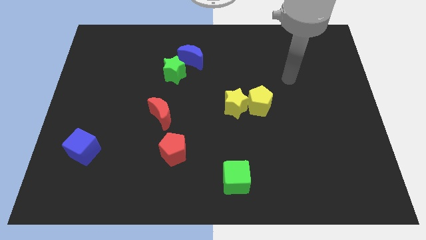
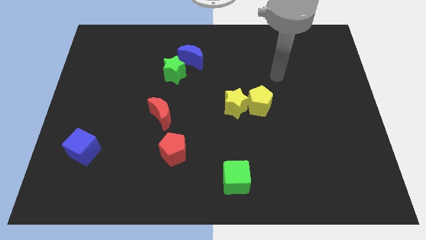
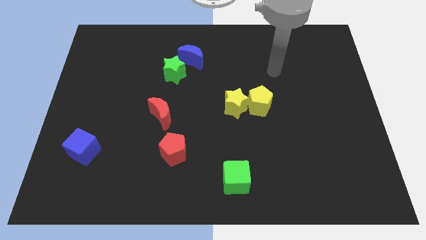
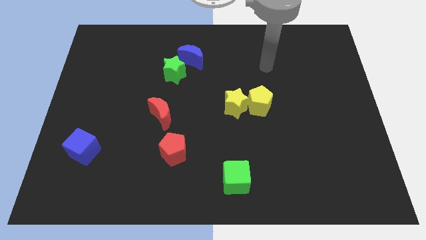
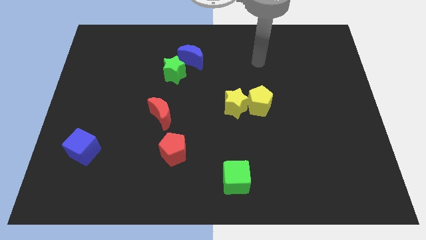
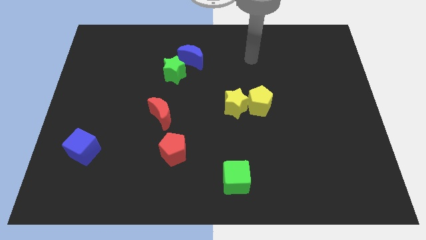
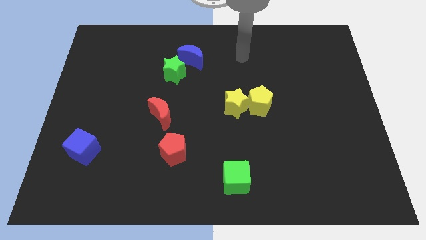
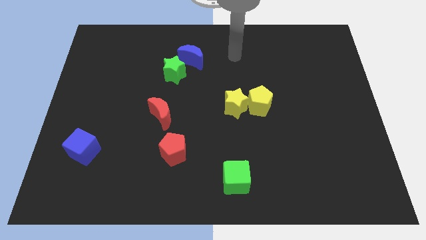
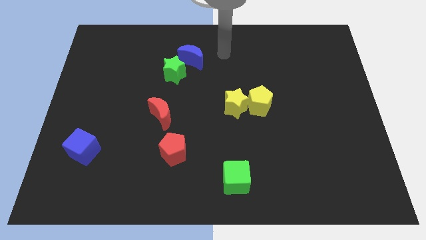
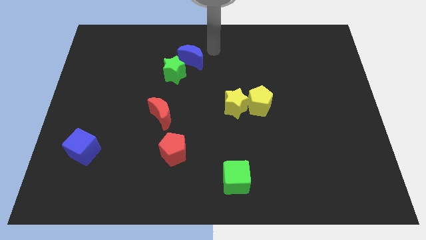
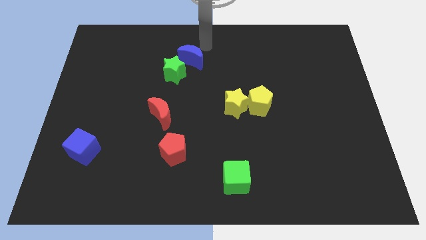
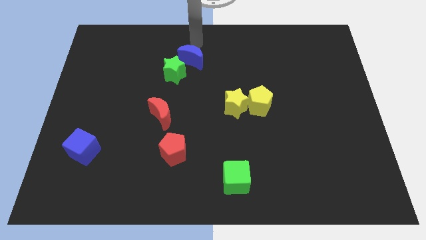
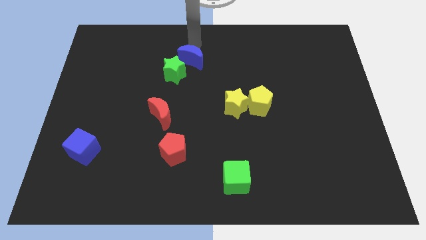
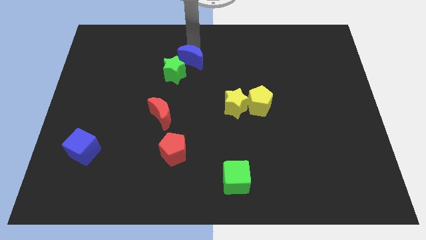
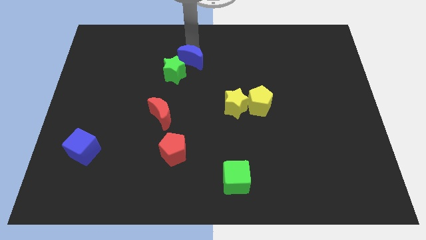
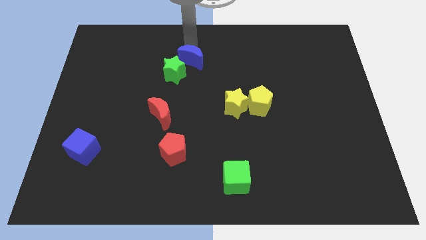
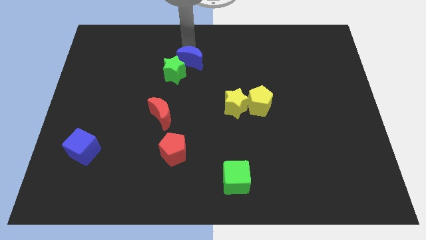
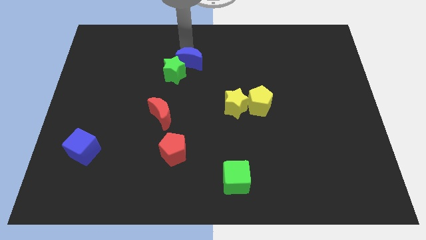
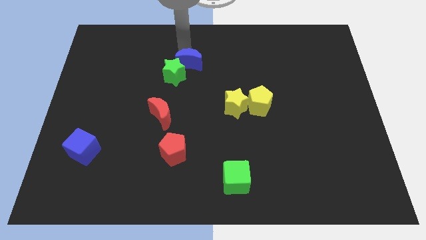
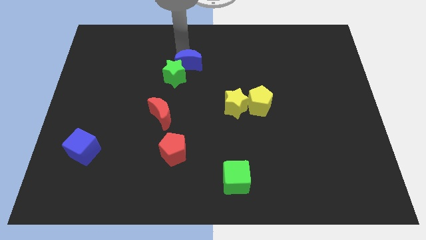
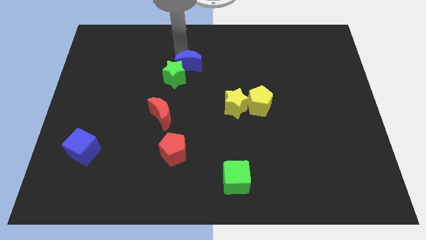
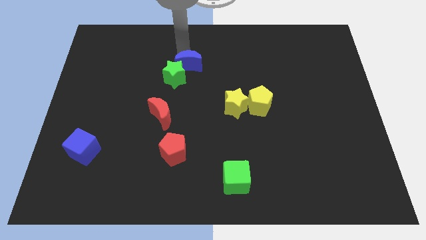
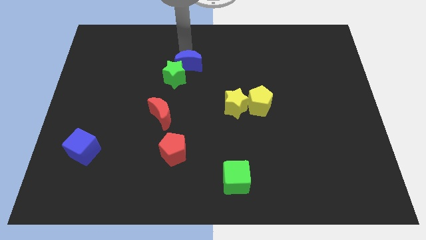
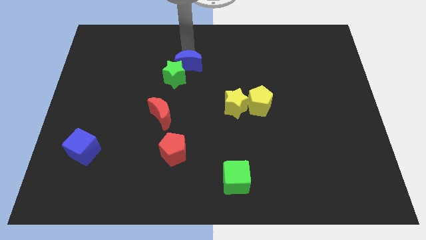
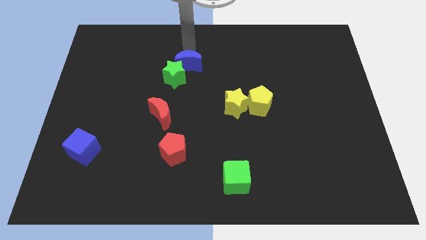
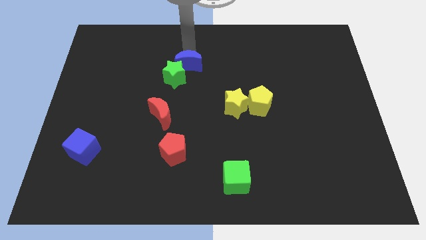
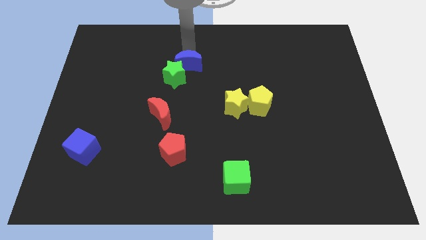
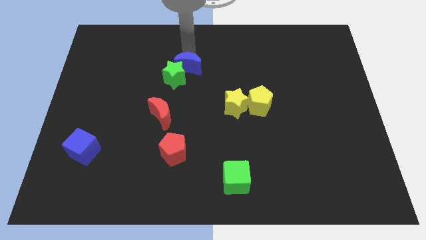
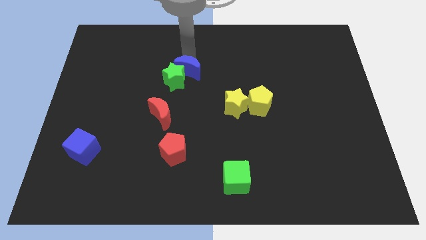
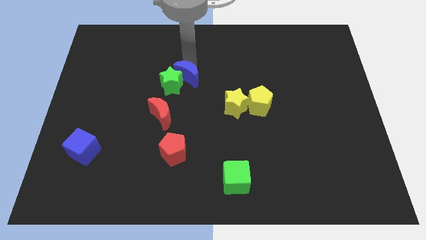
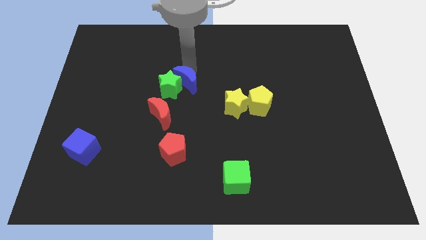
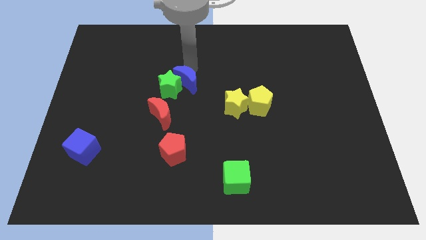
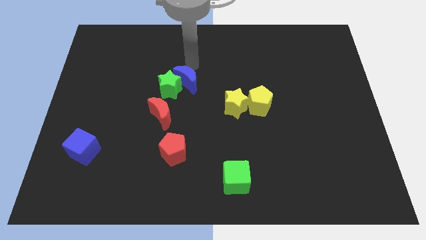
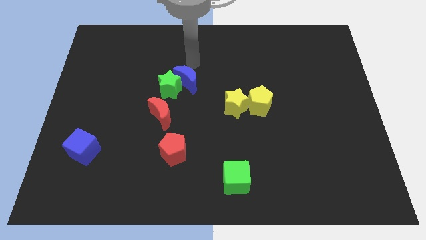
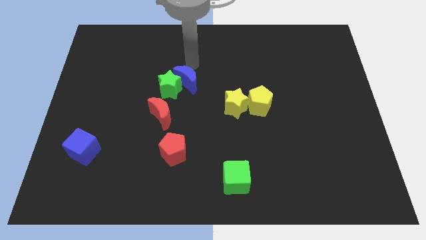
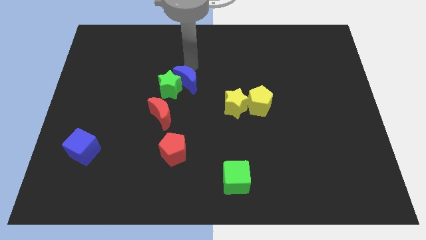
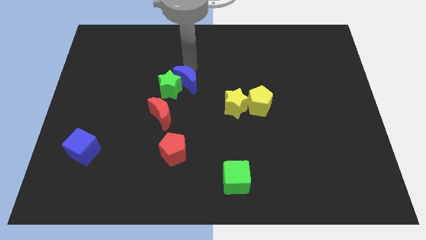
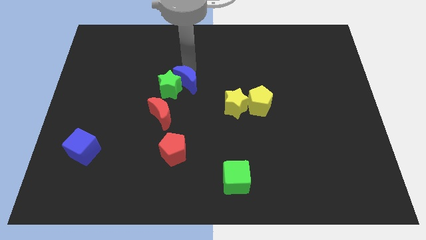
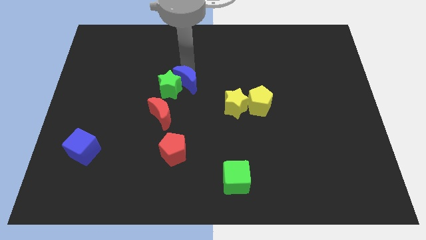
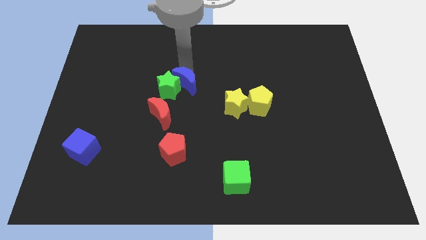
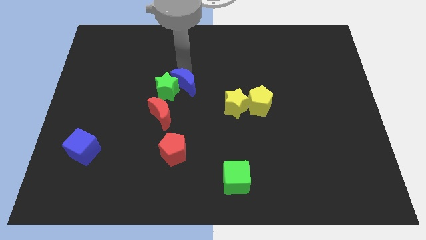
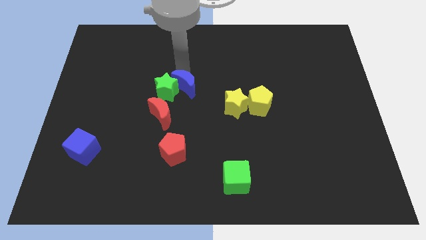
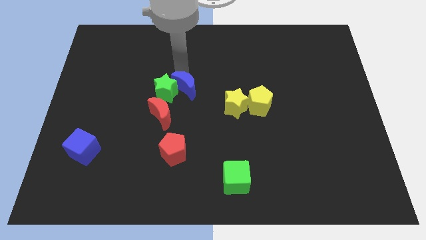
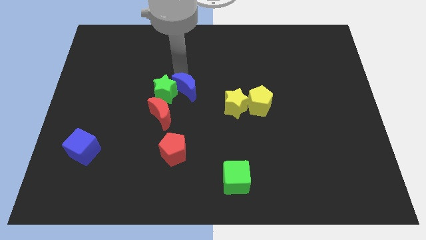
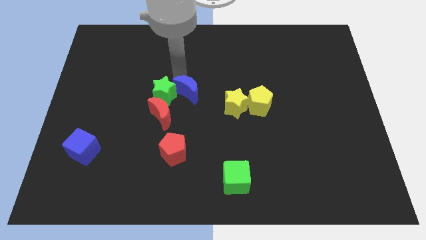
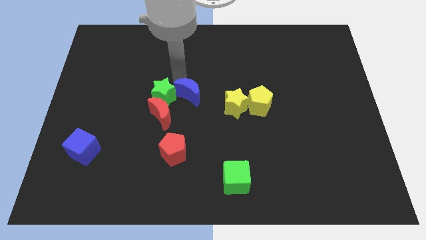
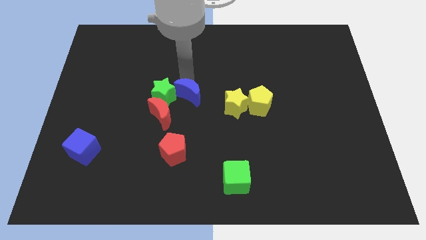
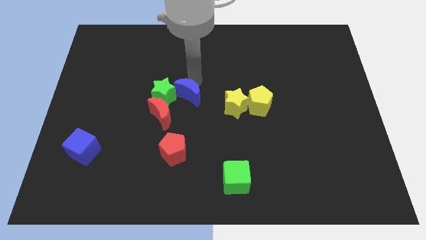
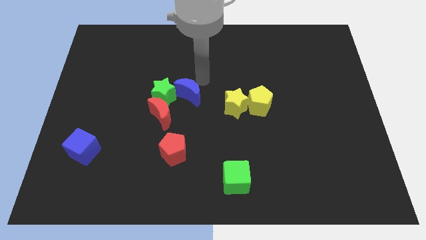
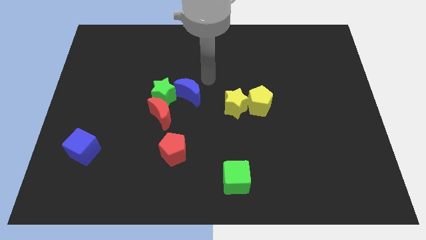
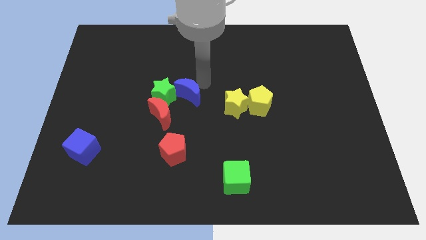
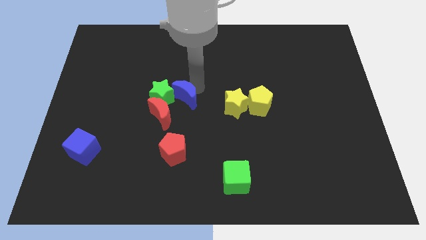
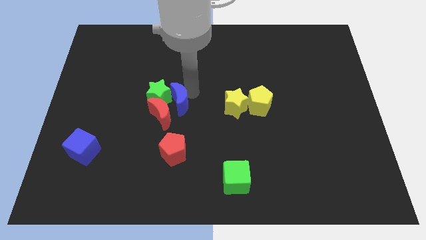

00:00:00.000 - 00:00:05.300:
move the blue moon next to the red moon

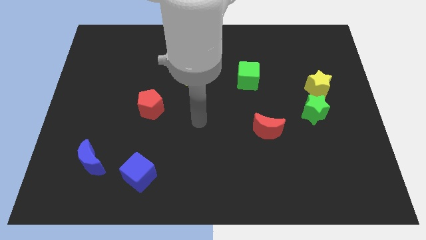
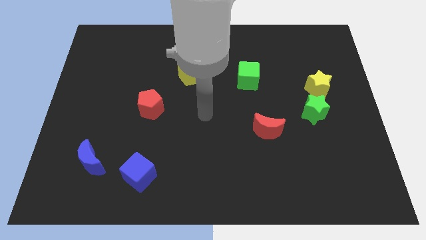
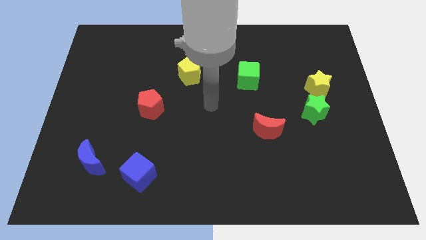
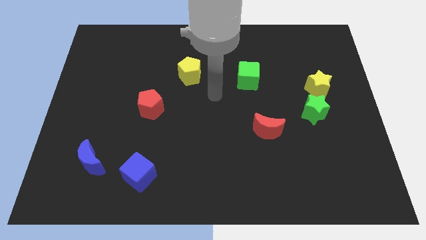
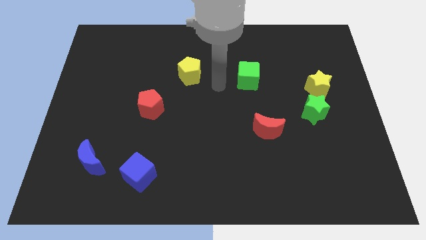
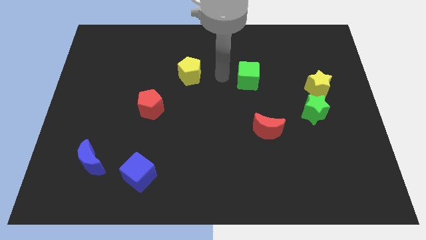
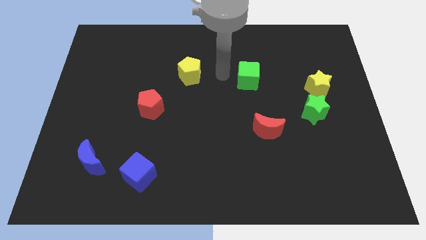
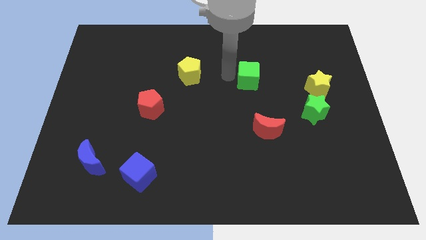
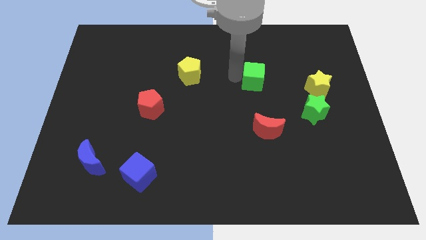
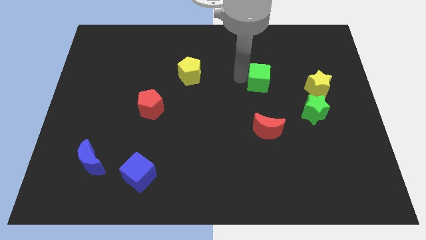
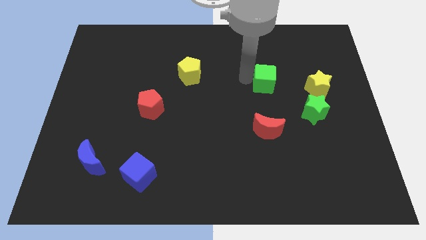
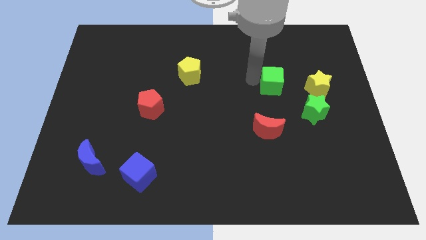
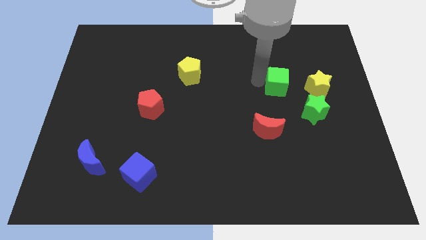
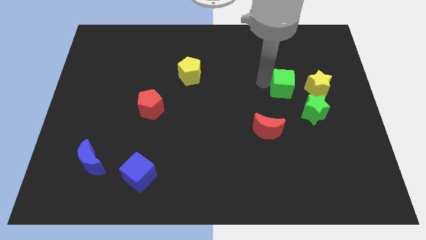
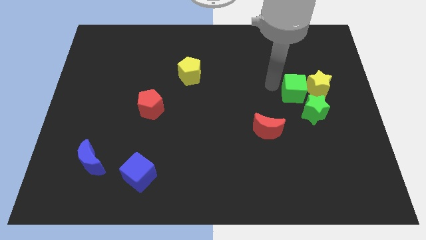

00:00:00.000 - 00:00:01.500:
push the green cube to the yellow star

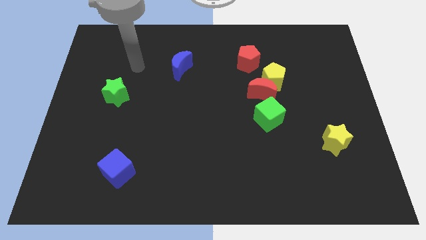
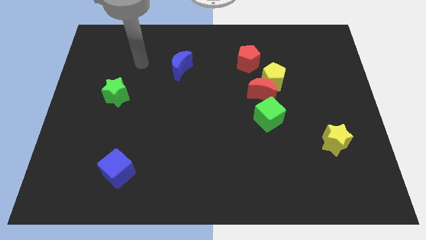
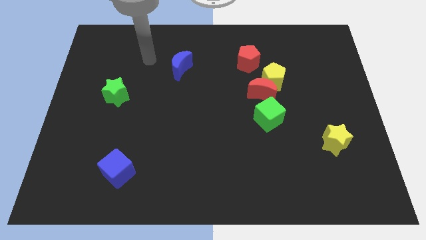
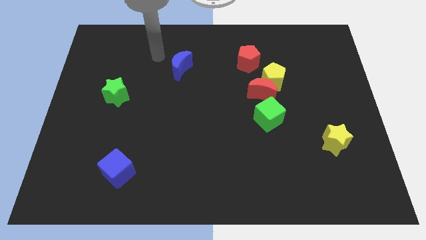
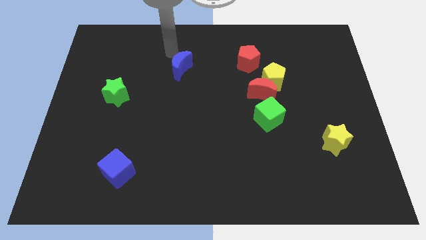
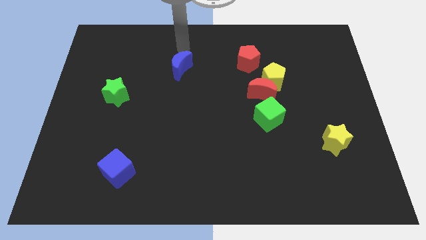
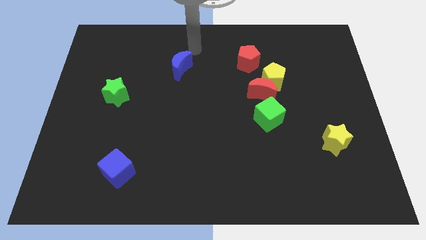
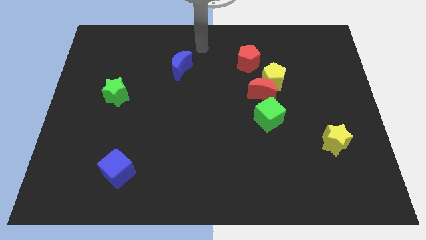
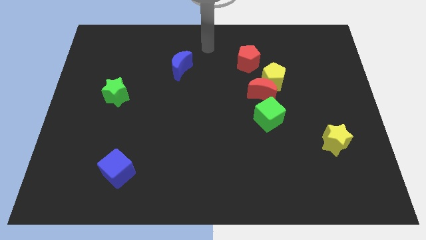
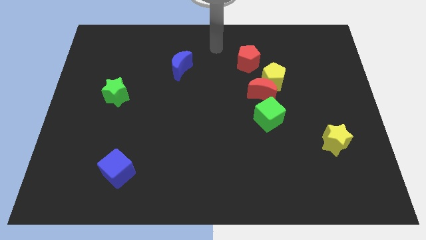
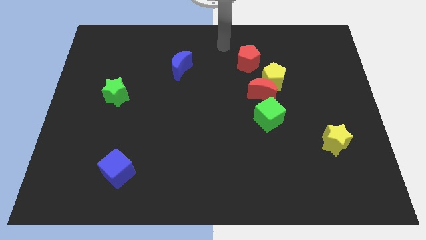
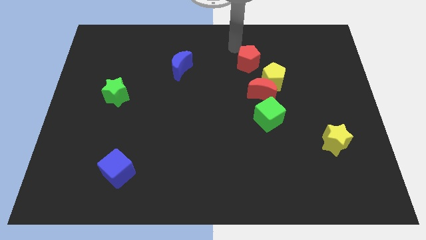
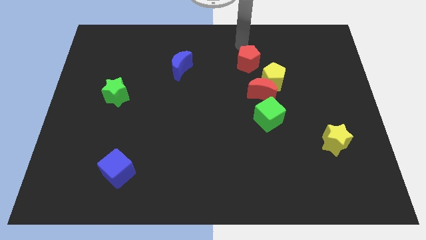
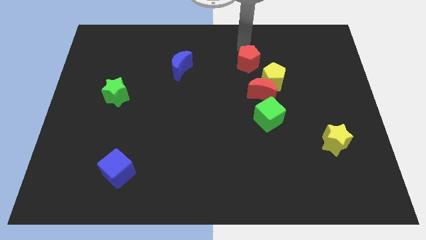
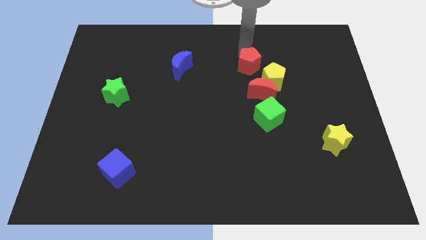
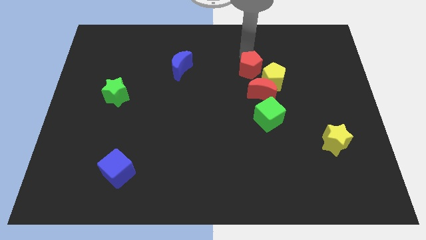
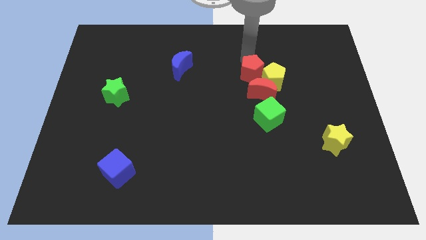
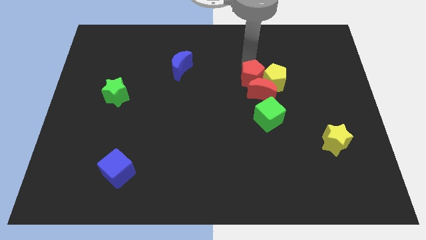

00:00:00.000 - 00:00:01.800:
move the red pentagon towards the red moon
